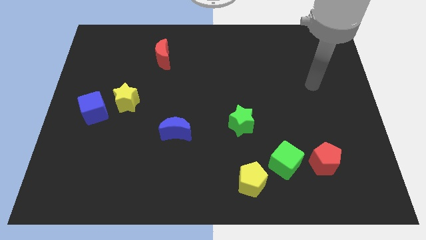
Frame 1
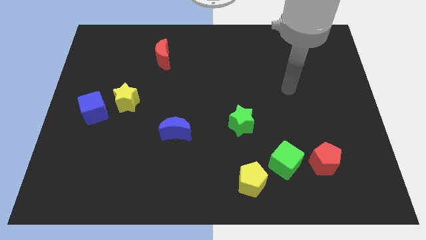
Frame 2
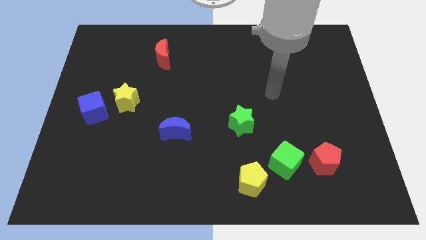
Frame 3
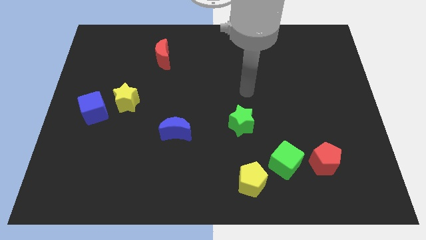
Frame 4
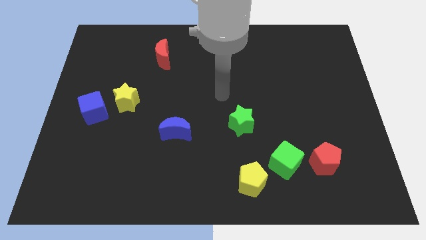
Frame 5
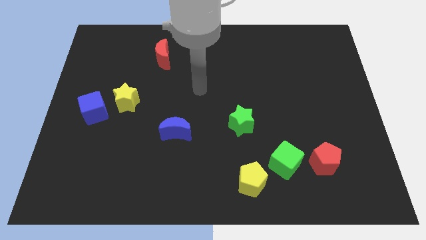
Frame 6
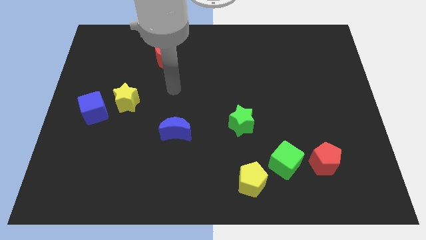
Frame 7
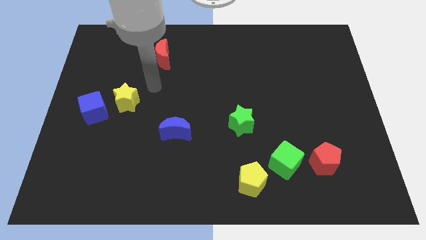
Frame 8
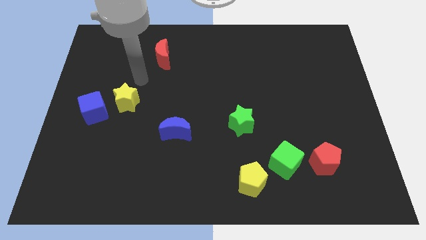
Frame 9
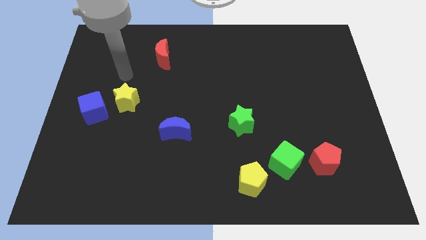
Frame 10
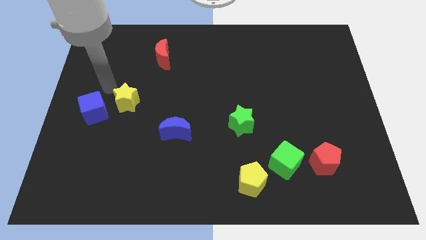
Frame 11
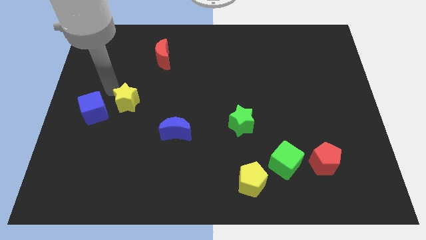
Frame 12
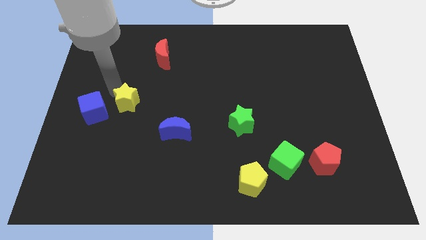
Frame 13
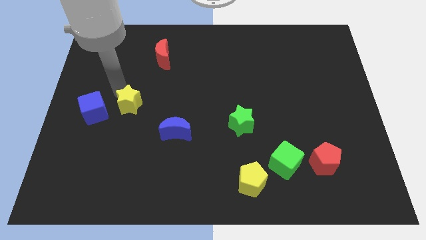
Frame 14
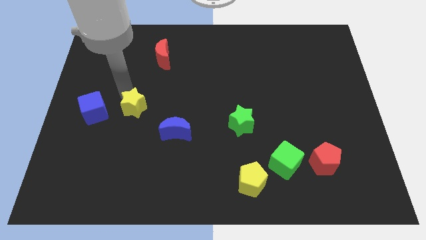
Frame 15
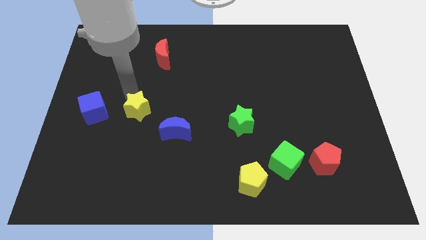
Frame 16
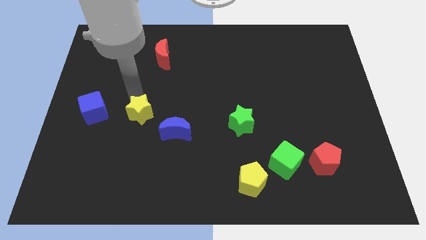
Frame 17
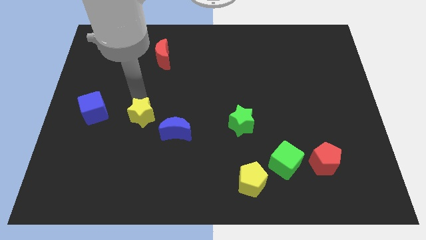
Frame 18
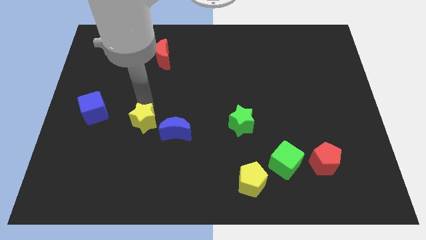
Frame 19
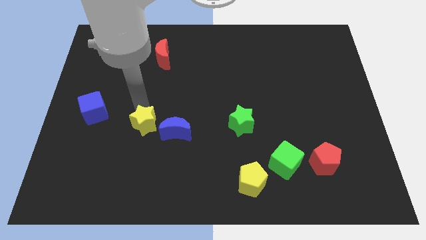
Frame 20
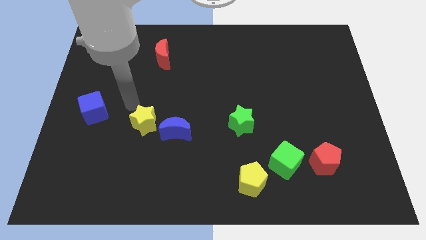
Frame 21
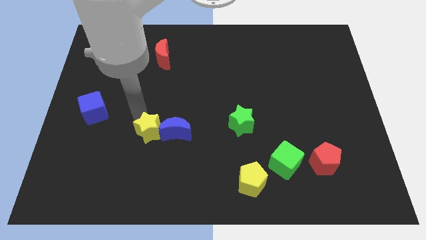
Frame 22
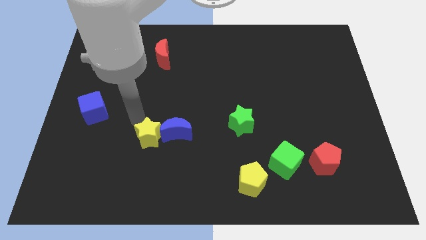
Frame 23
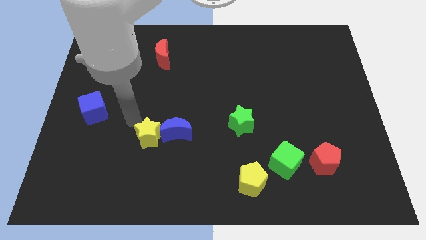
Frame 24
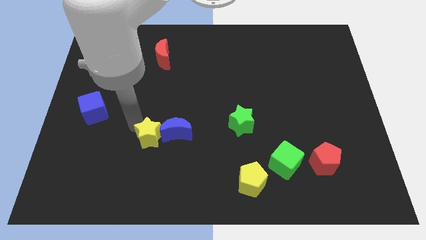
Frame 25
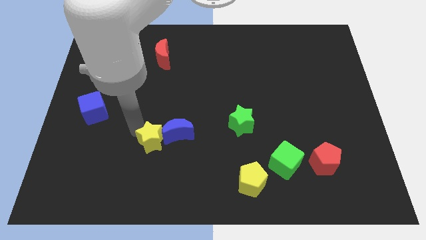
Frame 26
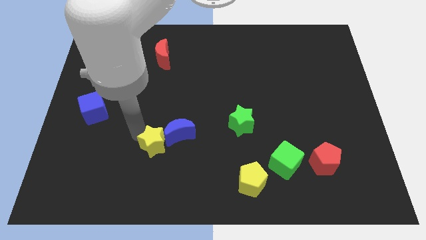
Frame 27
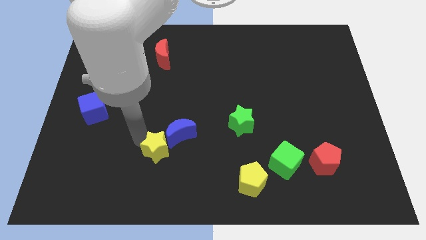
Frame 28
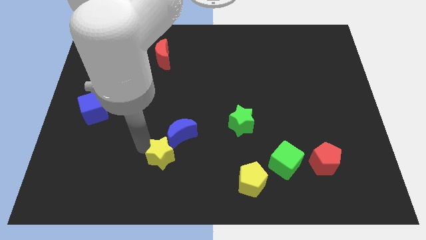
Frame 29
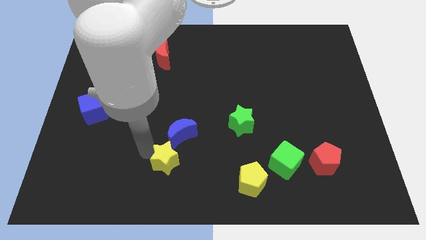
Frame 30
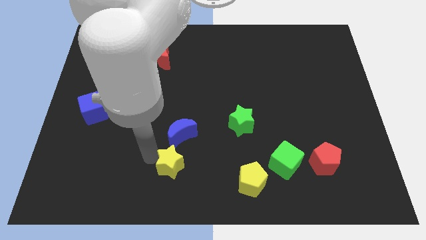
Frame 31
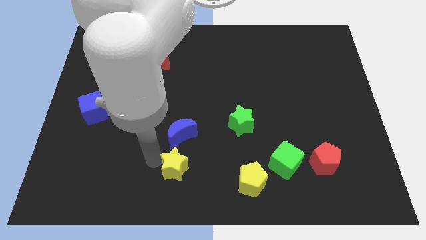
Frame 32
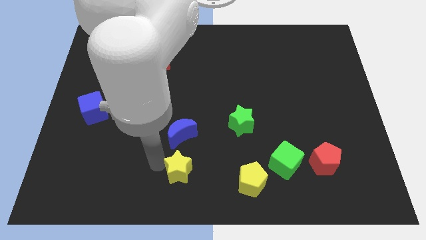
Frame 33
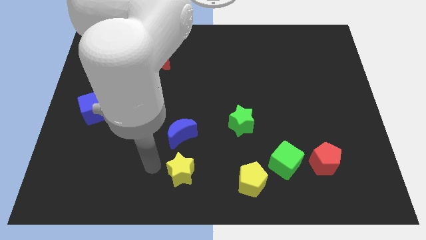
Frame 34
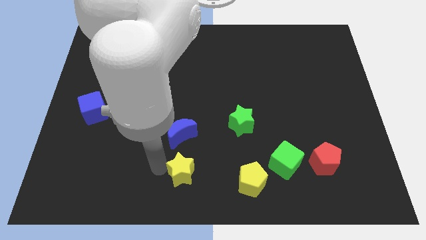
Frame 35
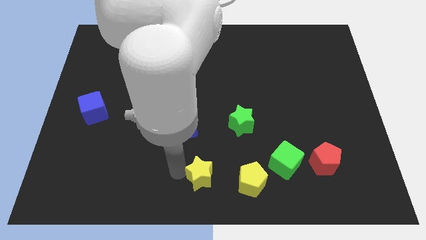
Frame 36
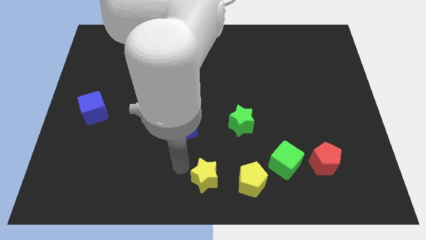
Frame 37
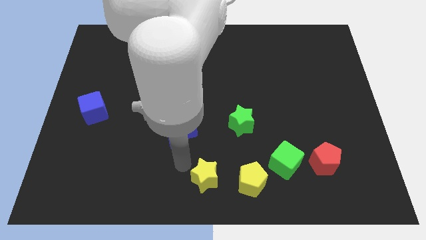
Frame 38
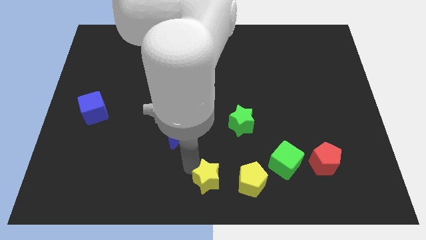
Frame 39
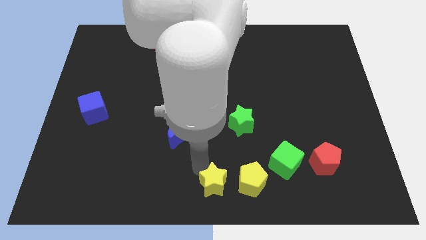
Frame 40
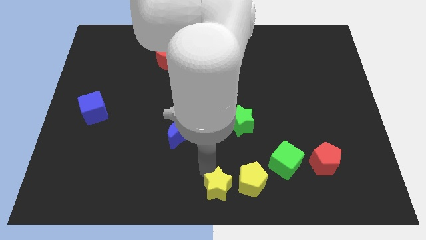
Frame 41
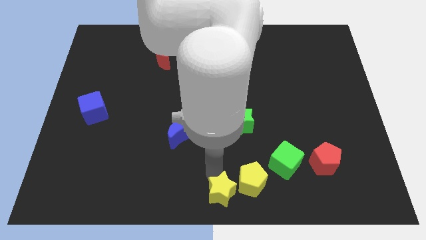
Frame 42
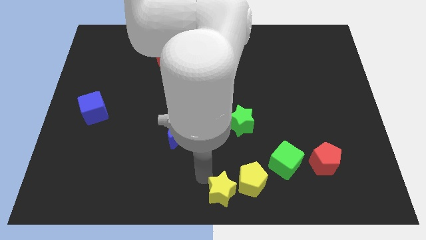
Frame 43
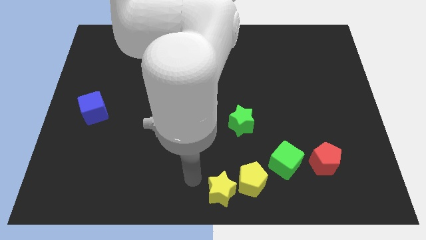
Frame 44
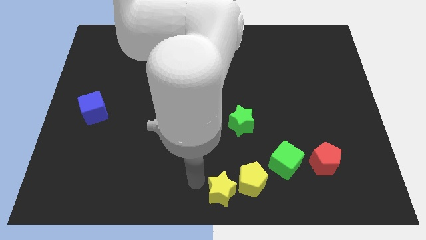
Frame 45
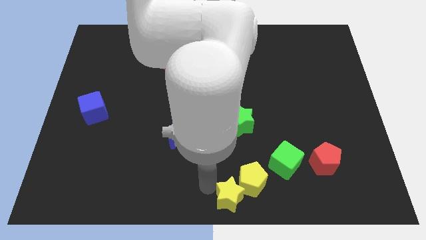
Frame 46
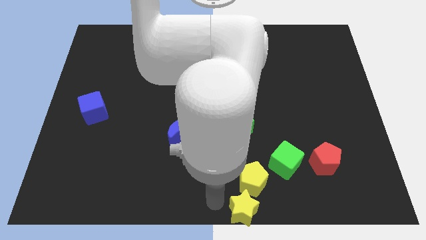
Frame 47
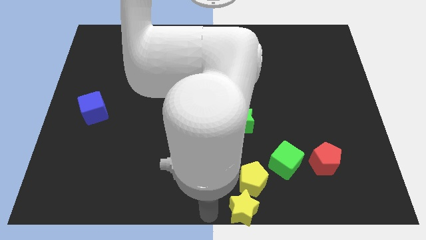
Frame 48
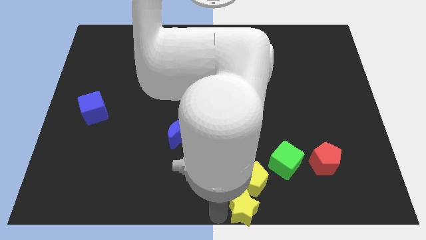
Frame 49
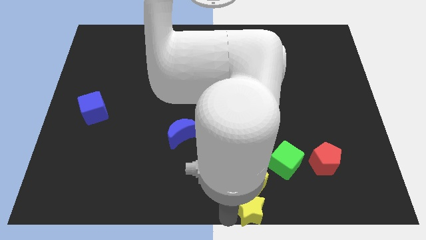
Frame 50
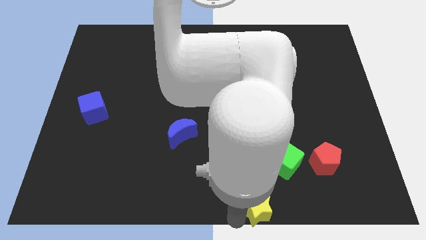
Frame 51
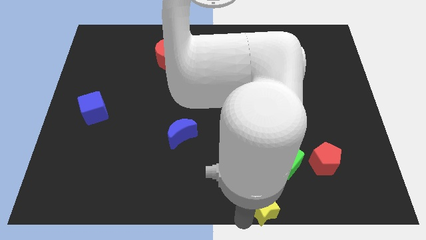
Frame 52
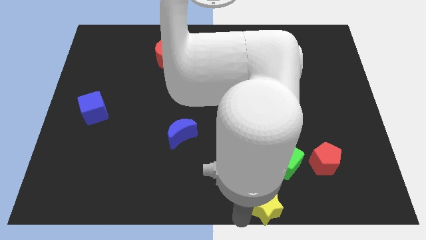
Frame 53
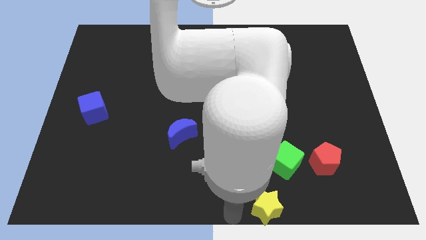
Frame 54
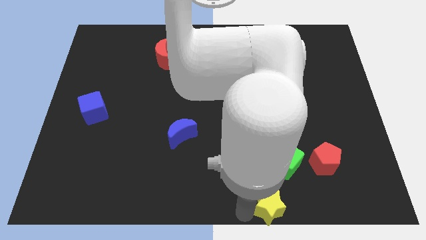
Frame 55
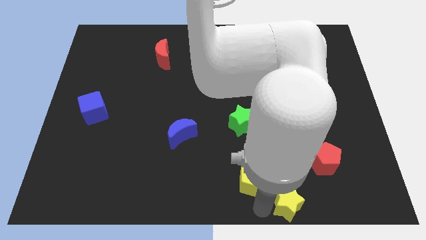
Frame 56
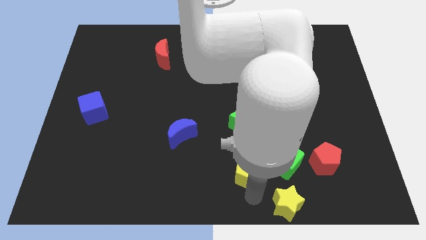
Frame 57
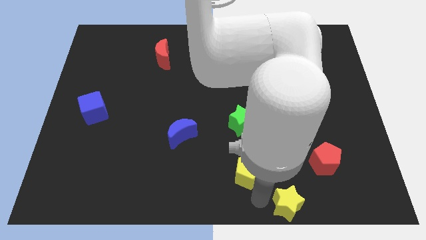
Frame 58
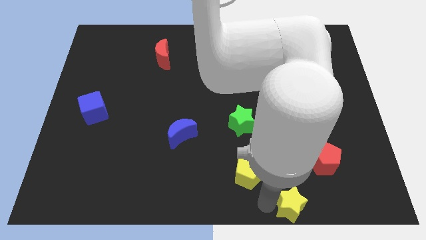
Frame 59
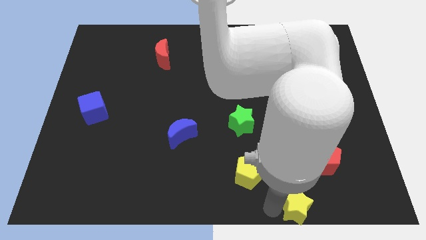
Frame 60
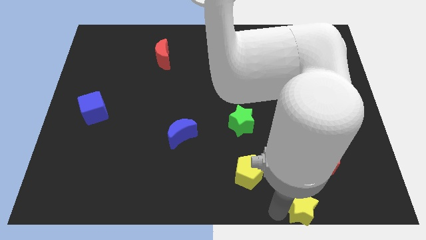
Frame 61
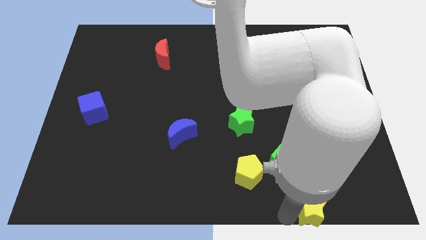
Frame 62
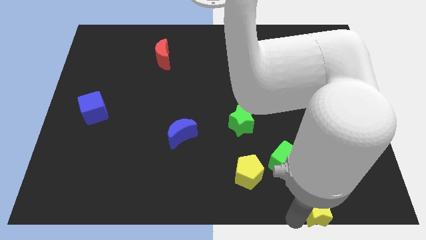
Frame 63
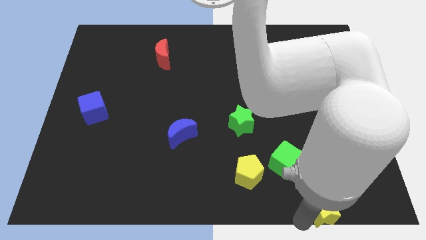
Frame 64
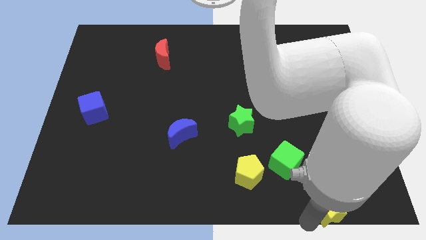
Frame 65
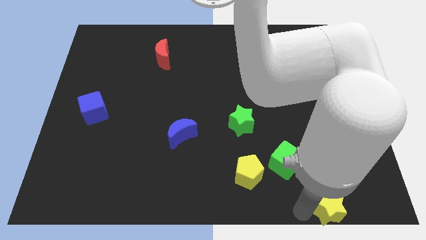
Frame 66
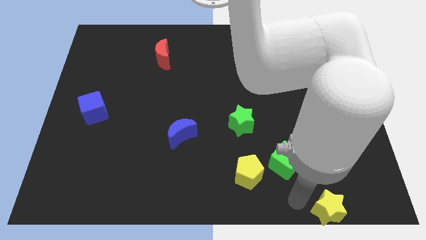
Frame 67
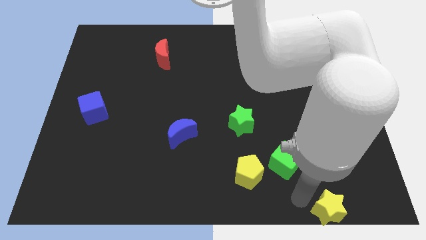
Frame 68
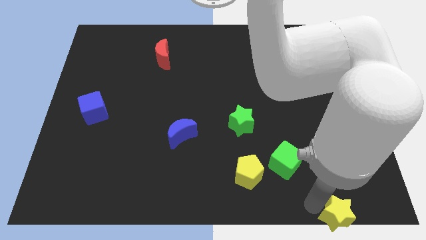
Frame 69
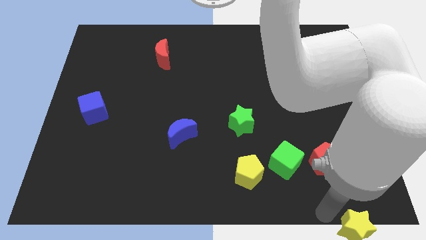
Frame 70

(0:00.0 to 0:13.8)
slide the yellow star to the bottom right corner
